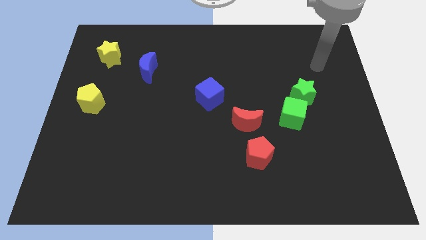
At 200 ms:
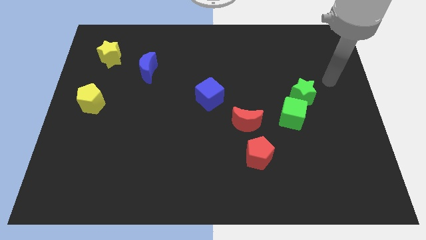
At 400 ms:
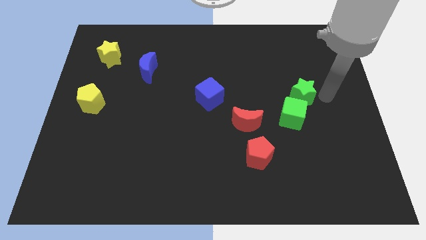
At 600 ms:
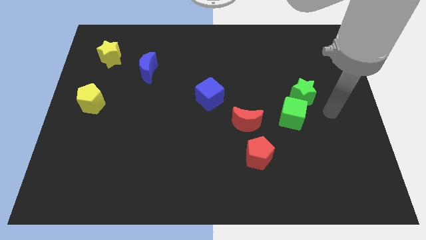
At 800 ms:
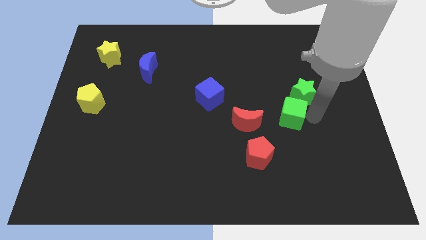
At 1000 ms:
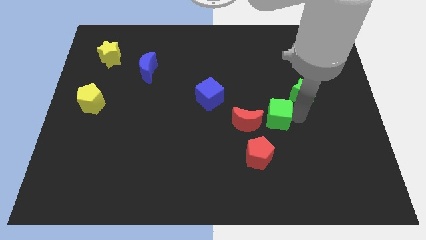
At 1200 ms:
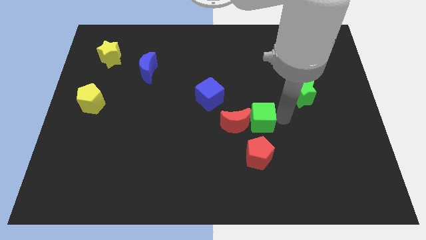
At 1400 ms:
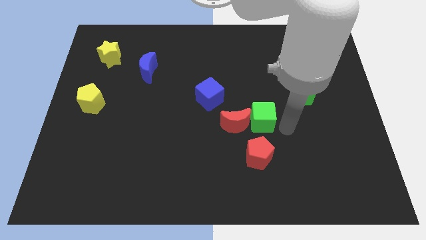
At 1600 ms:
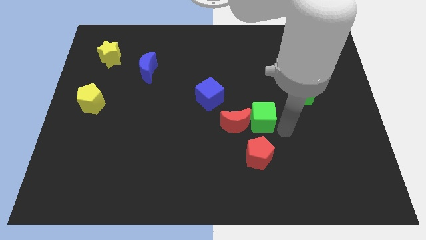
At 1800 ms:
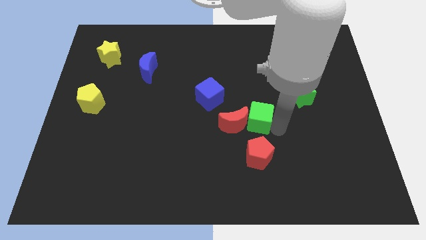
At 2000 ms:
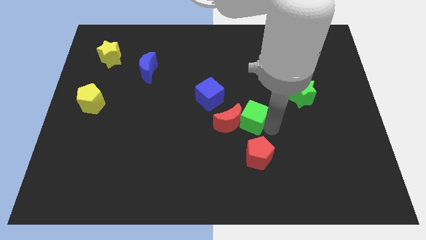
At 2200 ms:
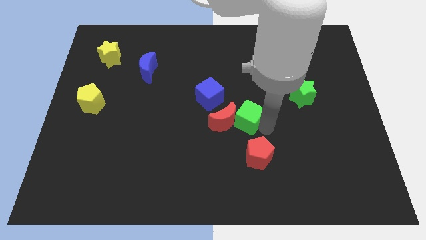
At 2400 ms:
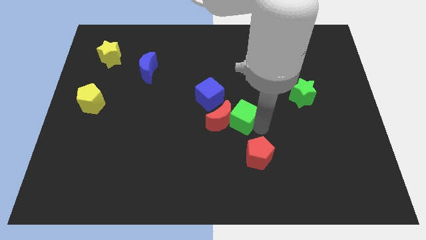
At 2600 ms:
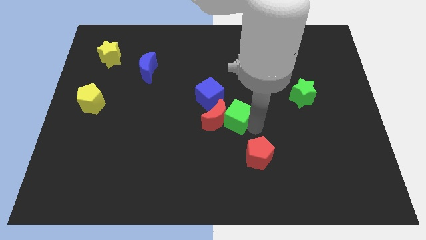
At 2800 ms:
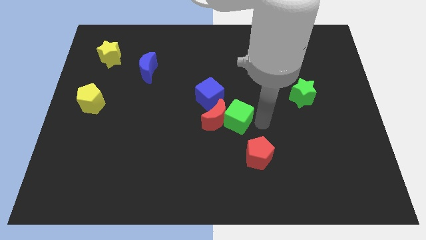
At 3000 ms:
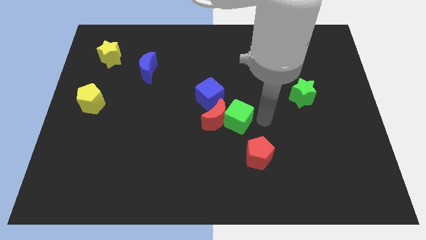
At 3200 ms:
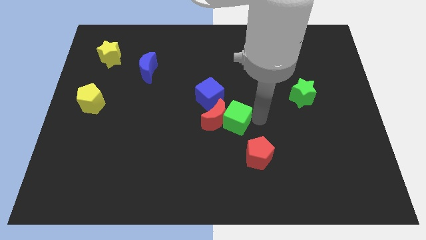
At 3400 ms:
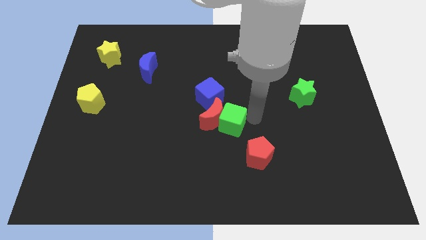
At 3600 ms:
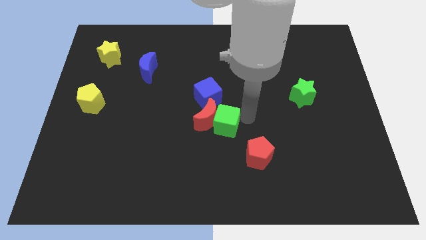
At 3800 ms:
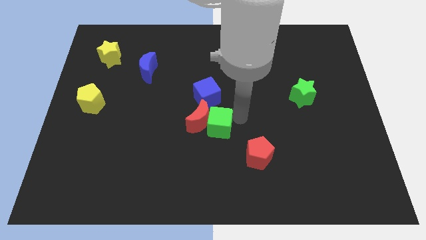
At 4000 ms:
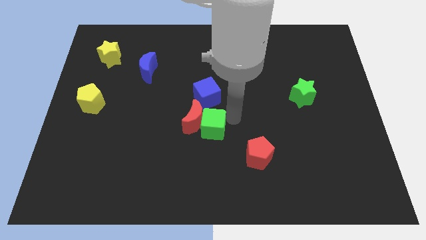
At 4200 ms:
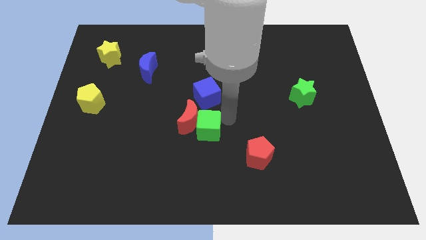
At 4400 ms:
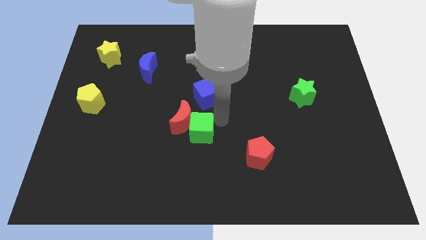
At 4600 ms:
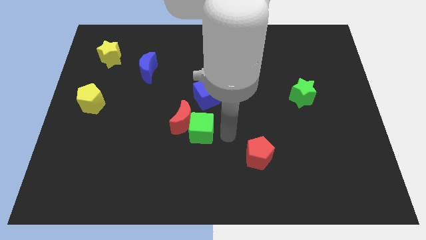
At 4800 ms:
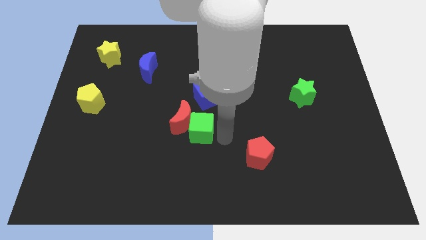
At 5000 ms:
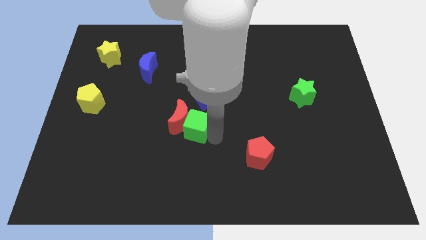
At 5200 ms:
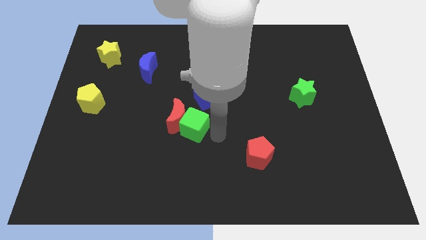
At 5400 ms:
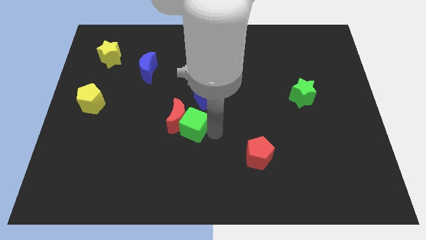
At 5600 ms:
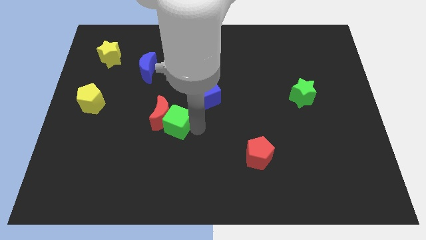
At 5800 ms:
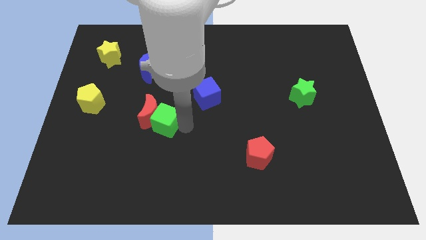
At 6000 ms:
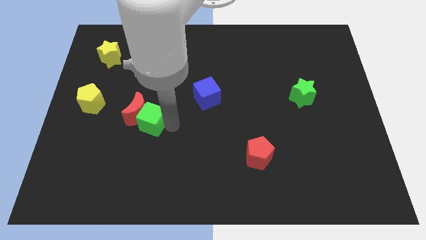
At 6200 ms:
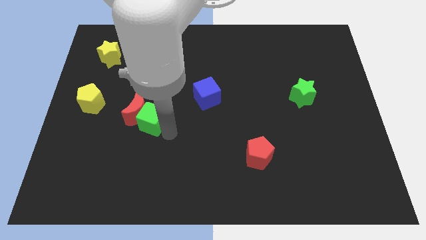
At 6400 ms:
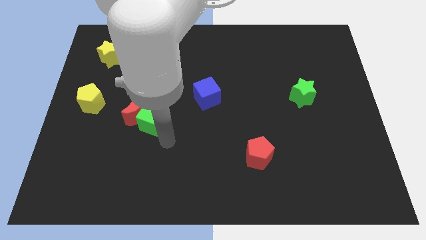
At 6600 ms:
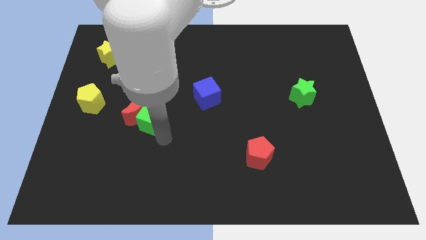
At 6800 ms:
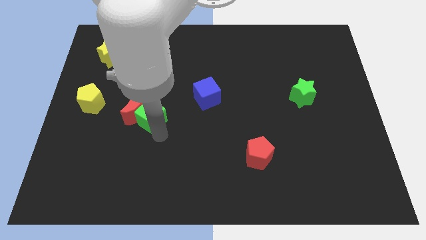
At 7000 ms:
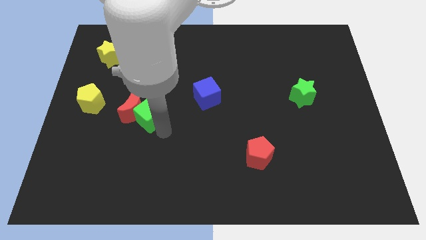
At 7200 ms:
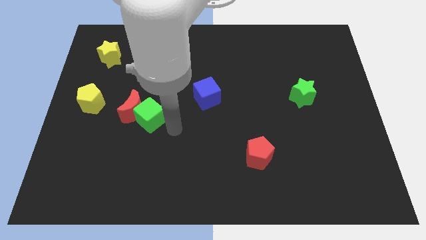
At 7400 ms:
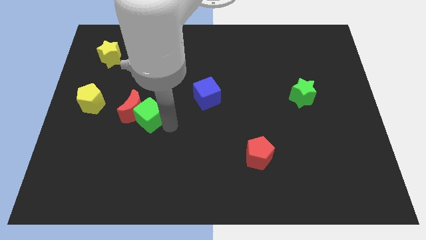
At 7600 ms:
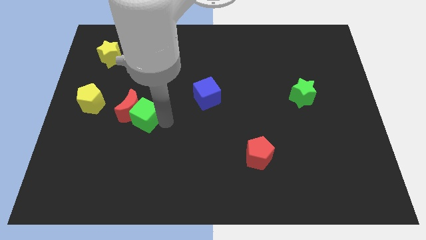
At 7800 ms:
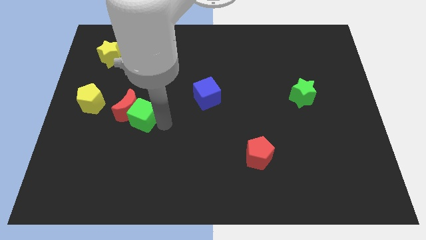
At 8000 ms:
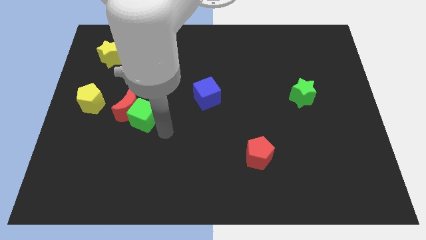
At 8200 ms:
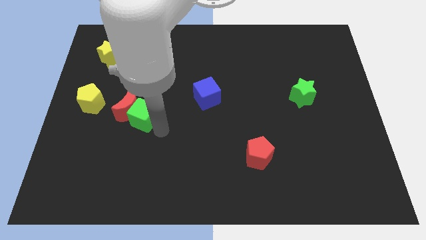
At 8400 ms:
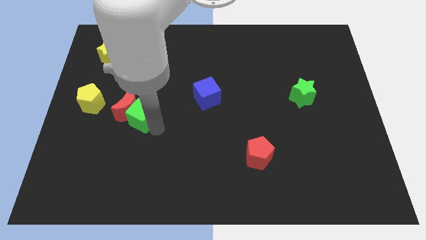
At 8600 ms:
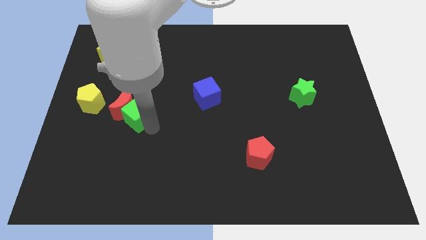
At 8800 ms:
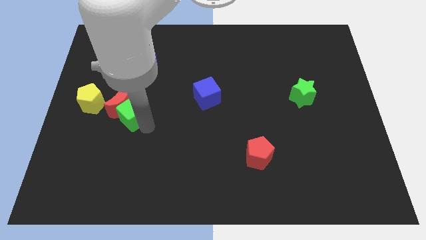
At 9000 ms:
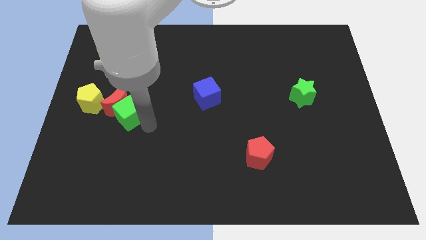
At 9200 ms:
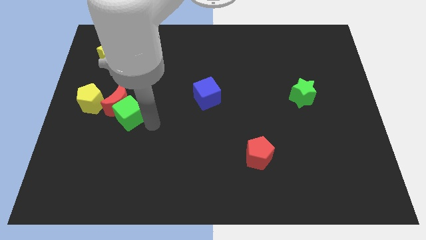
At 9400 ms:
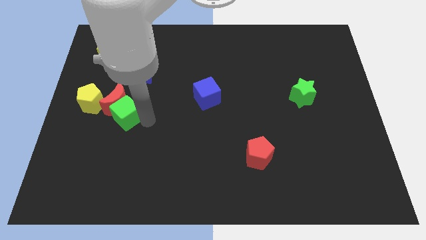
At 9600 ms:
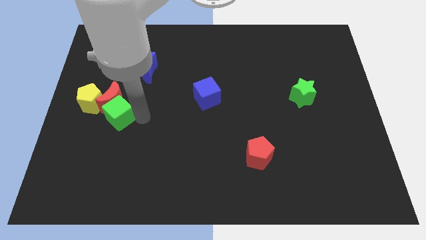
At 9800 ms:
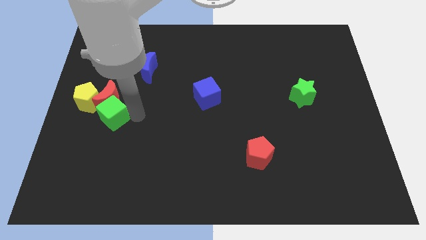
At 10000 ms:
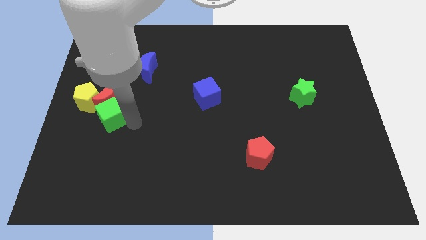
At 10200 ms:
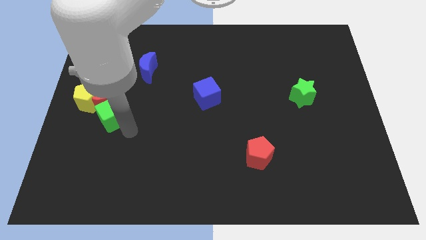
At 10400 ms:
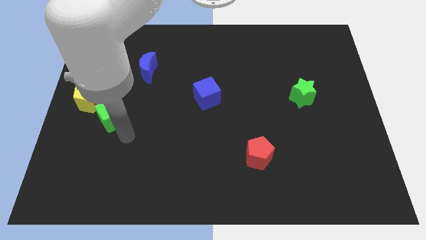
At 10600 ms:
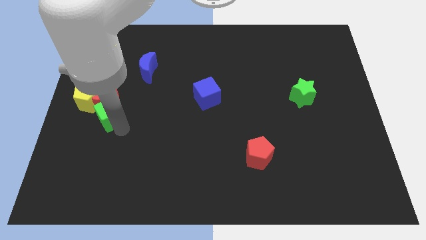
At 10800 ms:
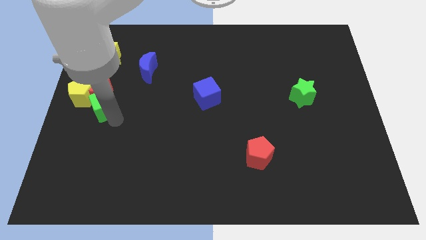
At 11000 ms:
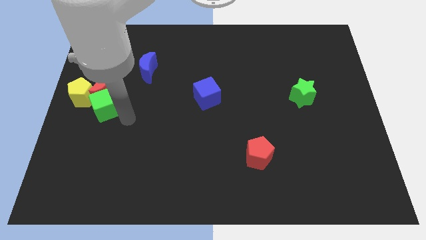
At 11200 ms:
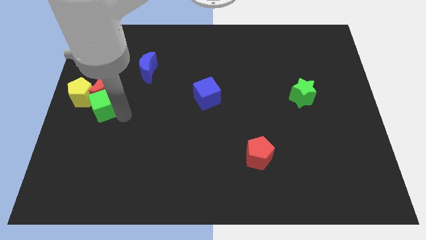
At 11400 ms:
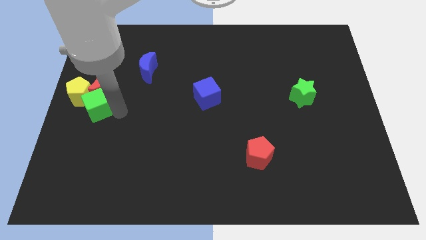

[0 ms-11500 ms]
put the green cube towards the yellow pentagon
